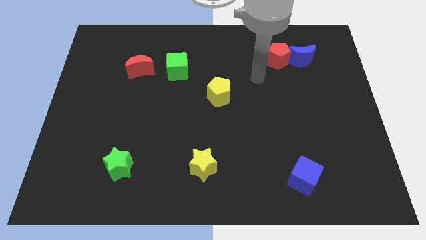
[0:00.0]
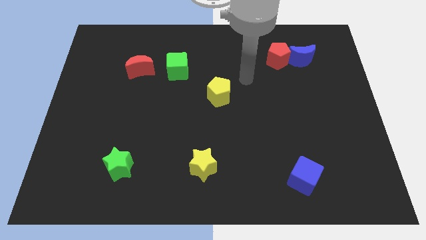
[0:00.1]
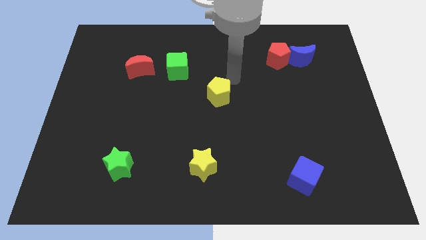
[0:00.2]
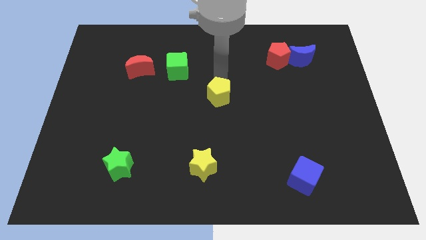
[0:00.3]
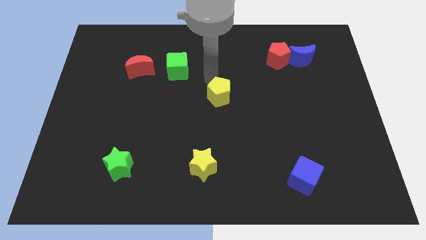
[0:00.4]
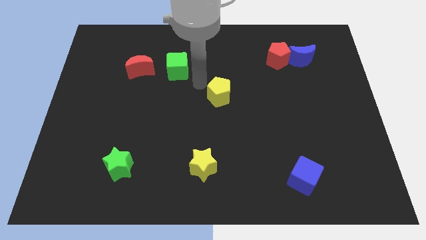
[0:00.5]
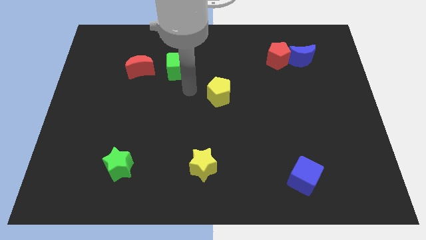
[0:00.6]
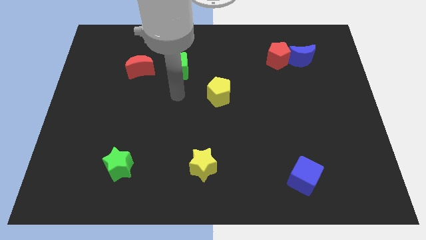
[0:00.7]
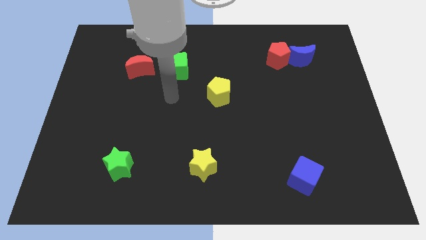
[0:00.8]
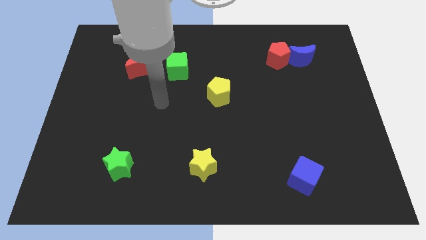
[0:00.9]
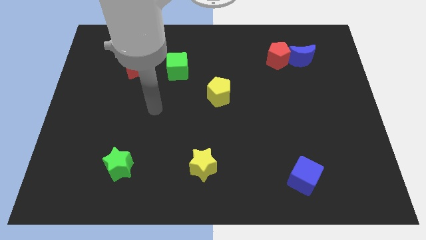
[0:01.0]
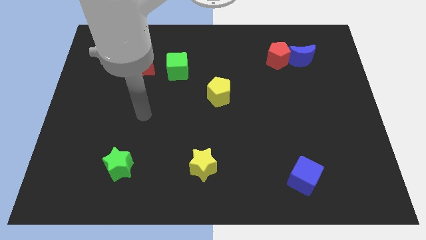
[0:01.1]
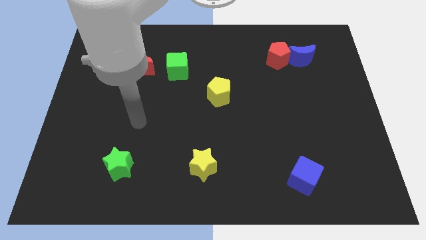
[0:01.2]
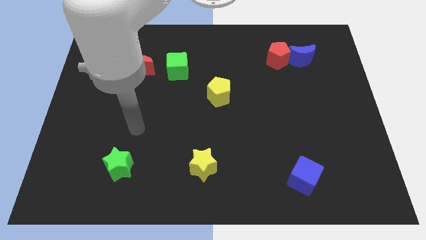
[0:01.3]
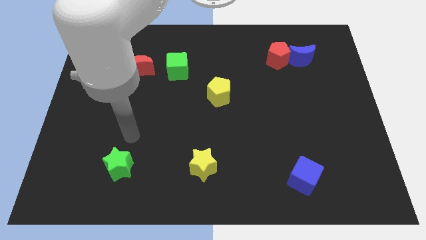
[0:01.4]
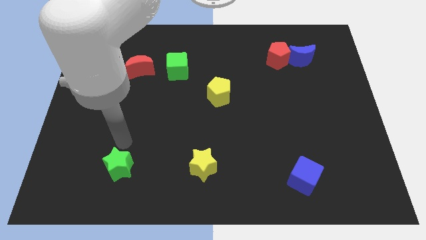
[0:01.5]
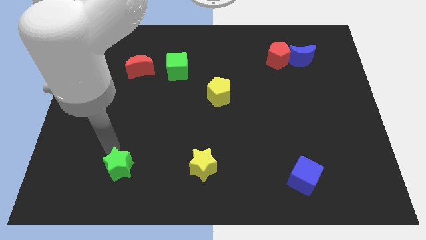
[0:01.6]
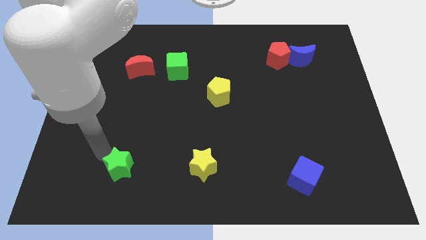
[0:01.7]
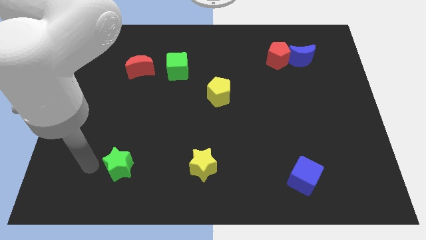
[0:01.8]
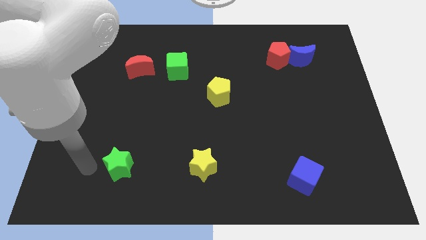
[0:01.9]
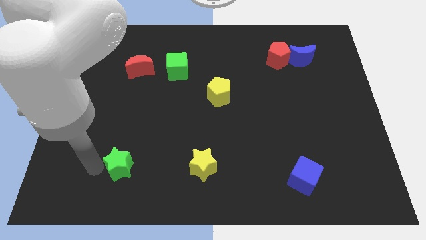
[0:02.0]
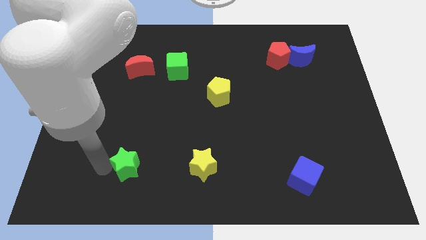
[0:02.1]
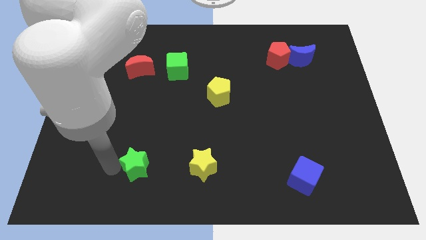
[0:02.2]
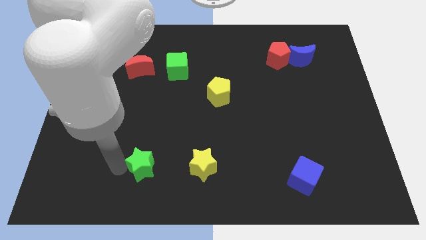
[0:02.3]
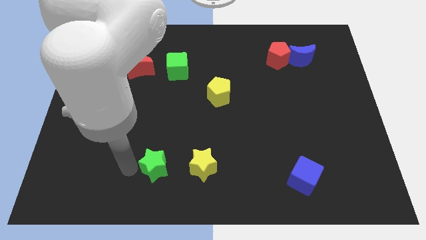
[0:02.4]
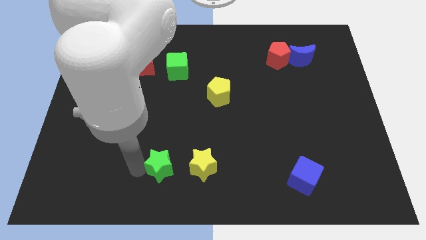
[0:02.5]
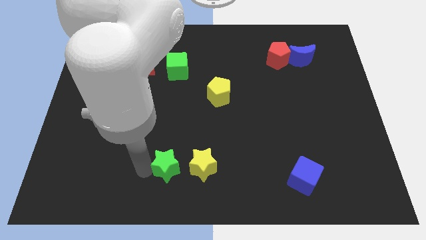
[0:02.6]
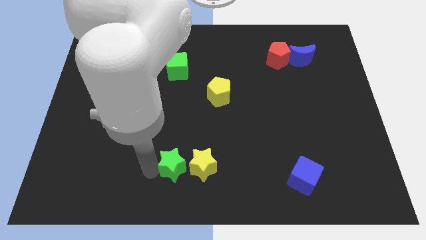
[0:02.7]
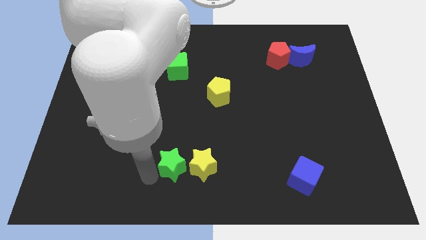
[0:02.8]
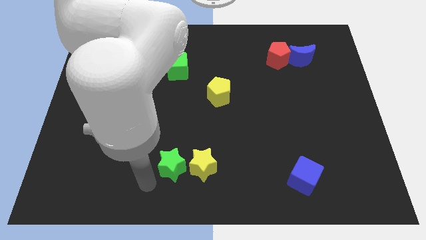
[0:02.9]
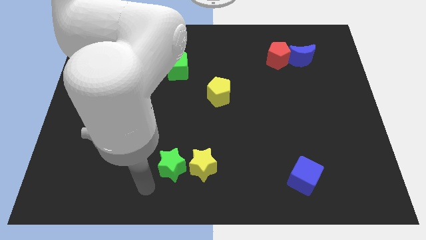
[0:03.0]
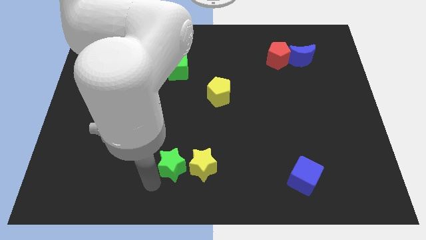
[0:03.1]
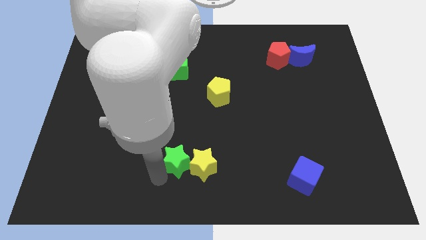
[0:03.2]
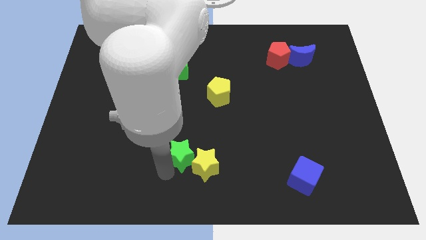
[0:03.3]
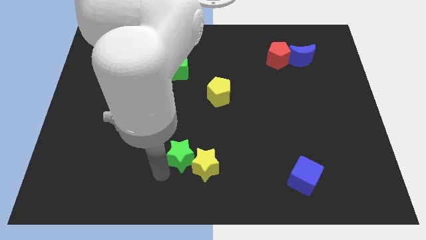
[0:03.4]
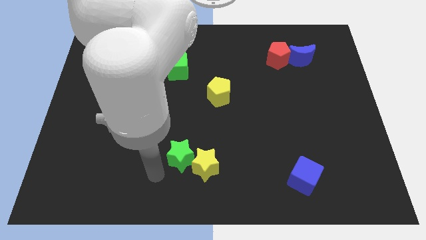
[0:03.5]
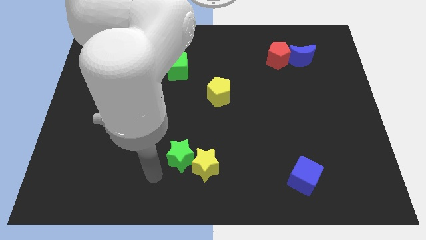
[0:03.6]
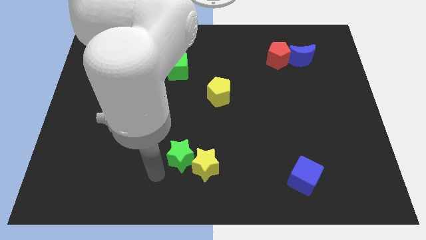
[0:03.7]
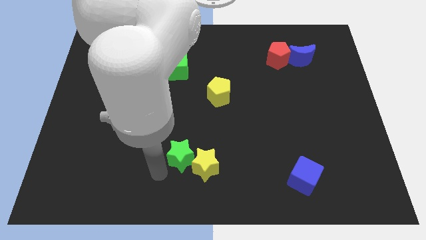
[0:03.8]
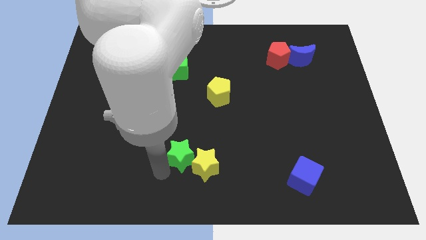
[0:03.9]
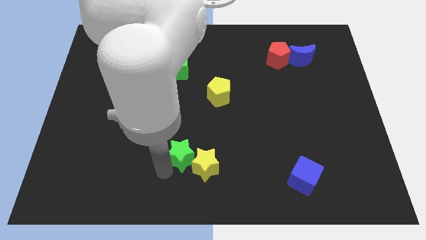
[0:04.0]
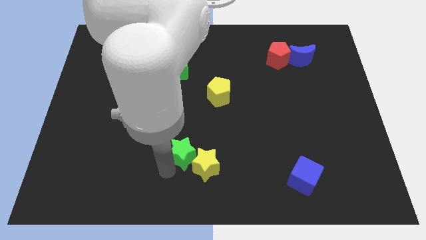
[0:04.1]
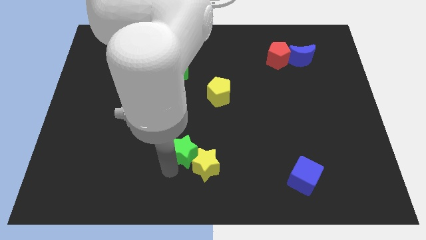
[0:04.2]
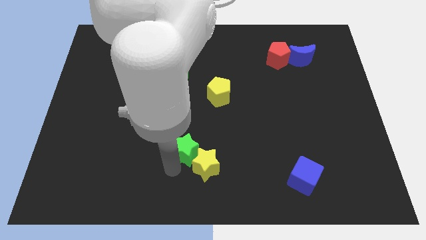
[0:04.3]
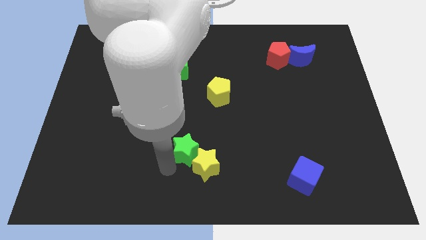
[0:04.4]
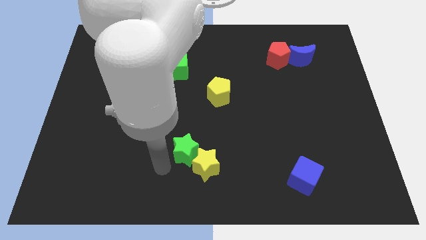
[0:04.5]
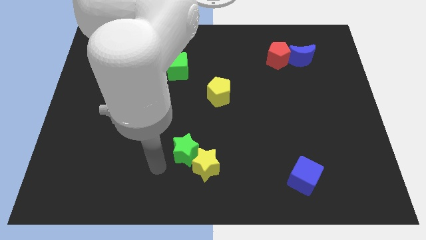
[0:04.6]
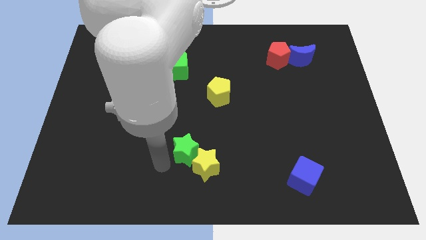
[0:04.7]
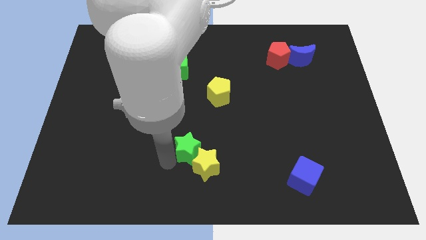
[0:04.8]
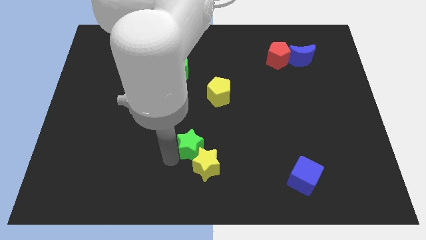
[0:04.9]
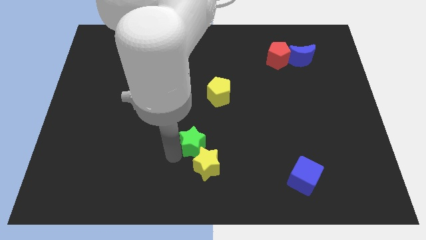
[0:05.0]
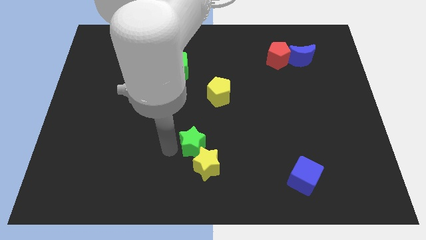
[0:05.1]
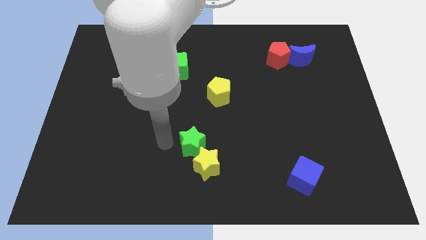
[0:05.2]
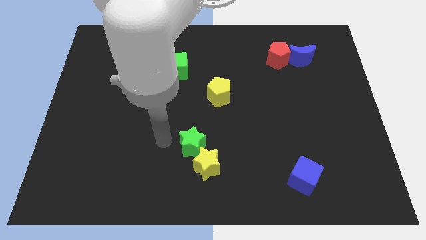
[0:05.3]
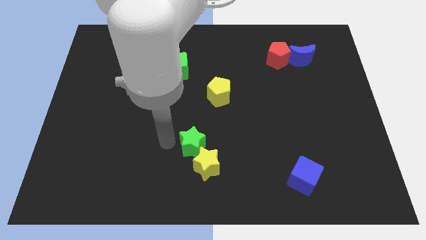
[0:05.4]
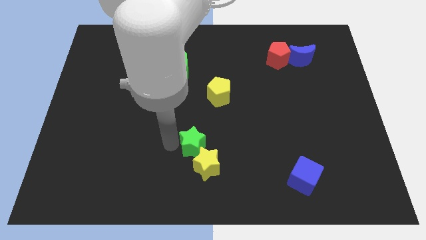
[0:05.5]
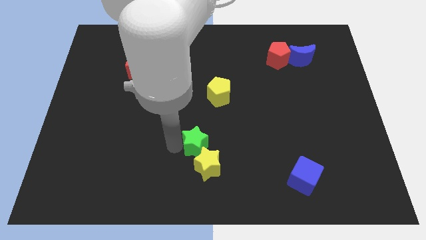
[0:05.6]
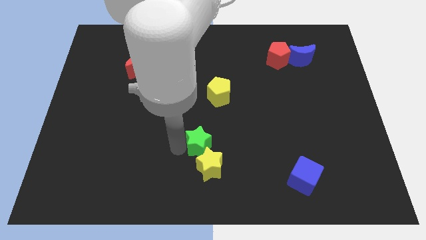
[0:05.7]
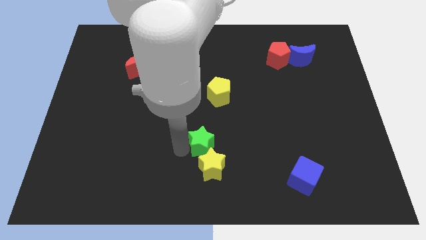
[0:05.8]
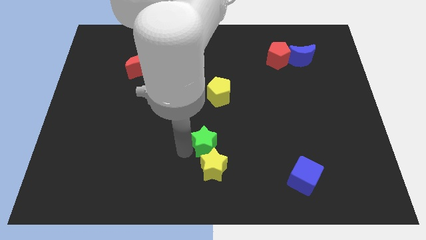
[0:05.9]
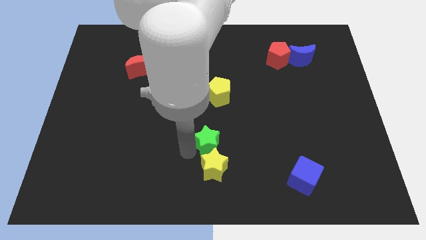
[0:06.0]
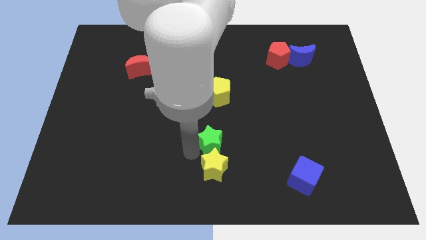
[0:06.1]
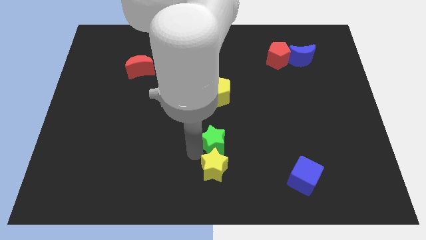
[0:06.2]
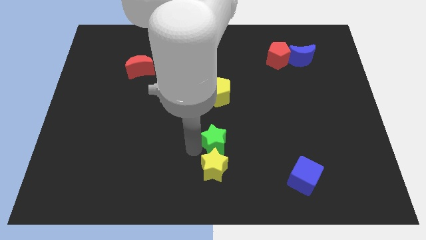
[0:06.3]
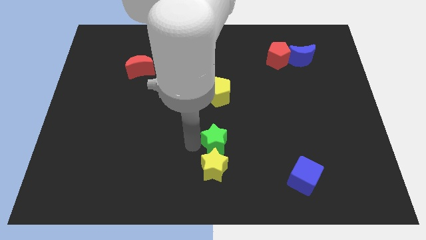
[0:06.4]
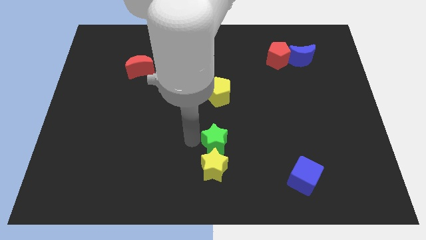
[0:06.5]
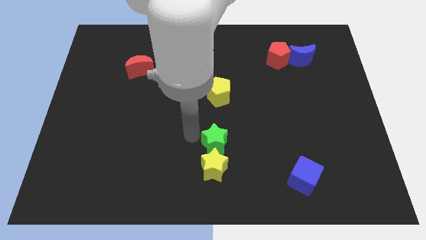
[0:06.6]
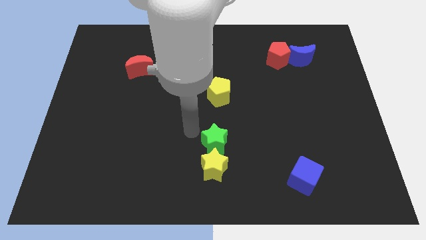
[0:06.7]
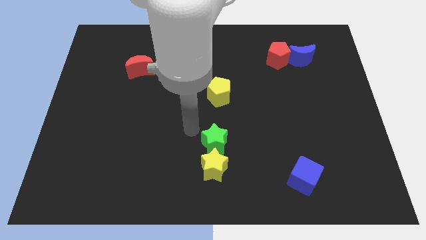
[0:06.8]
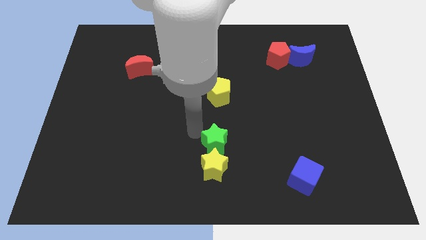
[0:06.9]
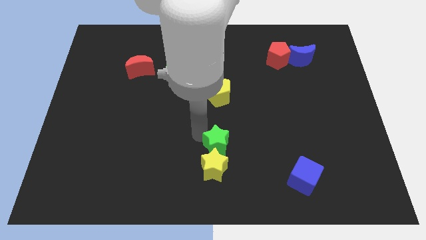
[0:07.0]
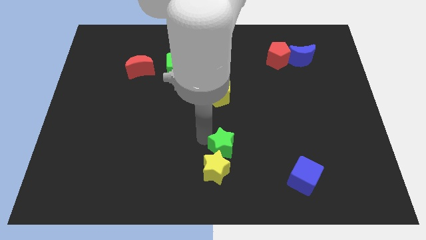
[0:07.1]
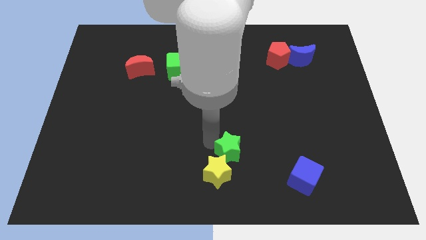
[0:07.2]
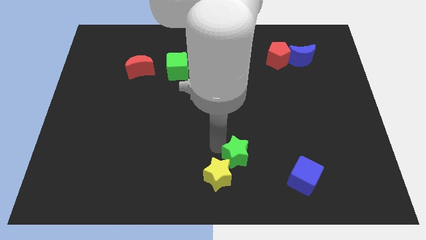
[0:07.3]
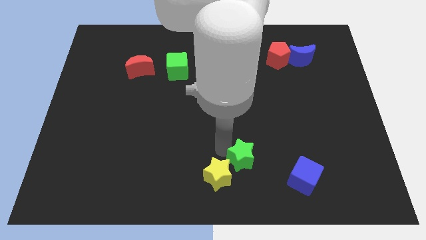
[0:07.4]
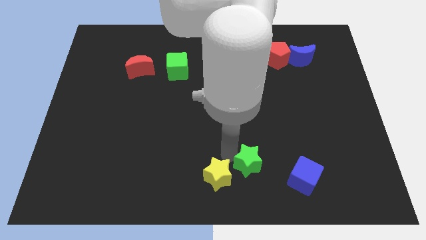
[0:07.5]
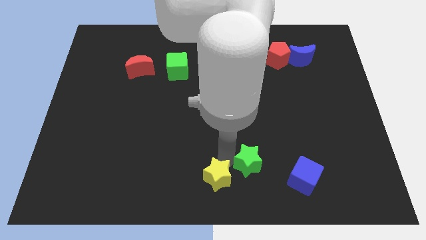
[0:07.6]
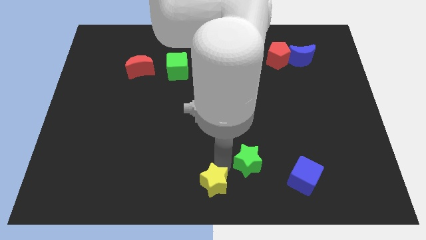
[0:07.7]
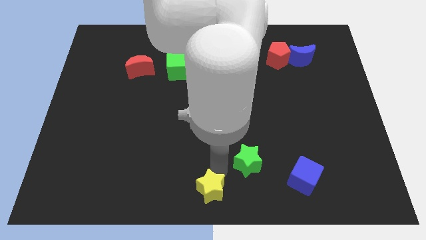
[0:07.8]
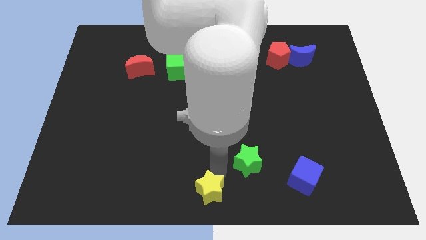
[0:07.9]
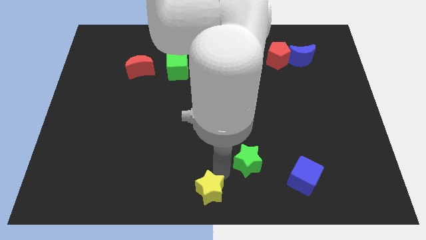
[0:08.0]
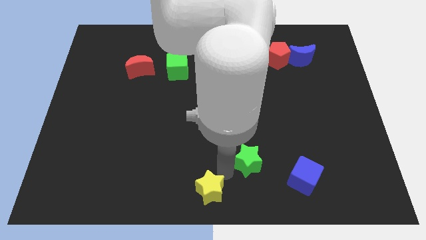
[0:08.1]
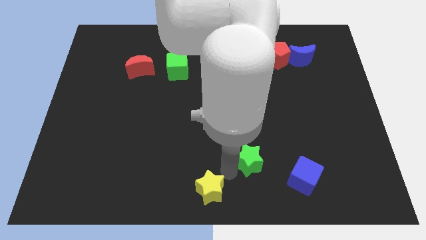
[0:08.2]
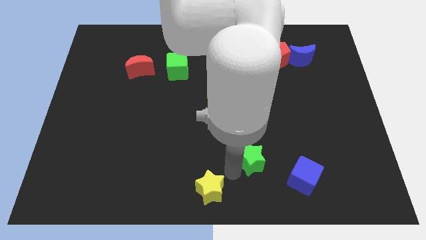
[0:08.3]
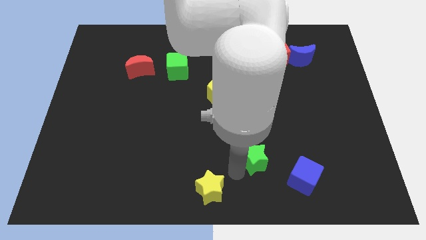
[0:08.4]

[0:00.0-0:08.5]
move the green star to the top left of the blue cube
